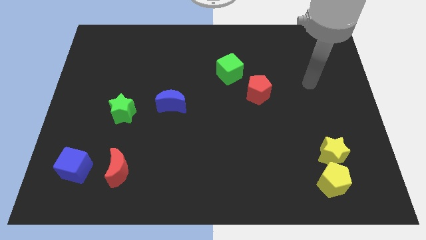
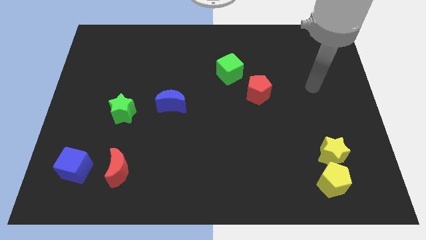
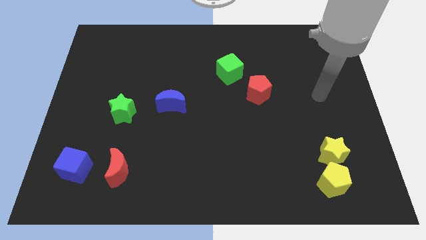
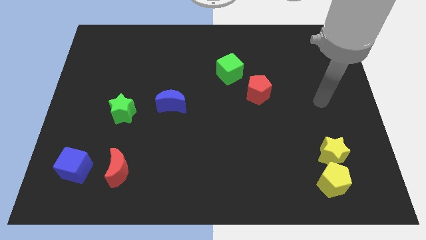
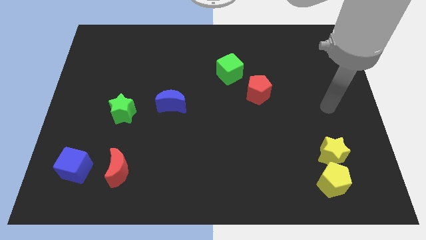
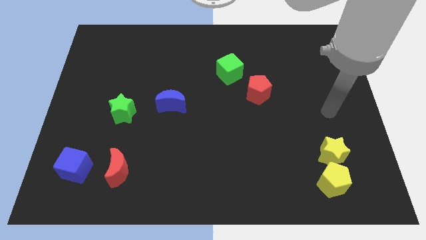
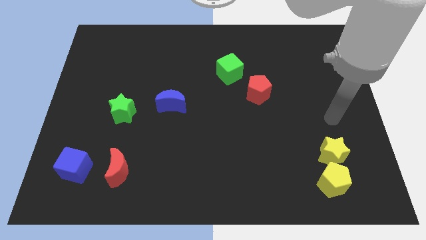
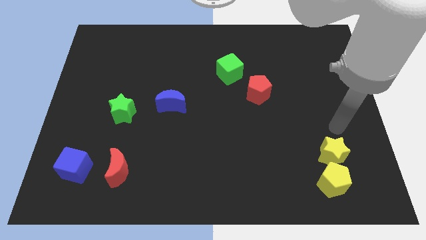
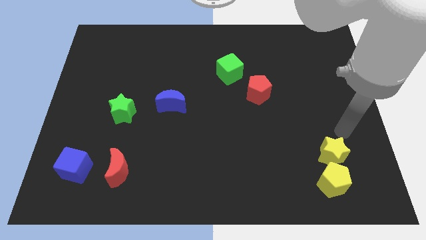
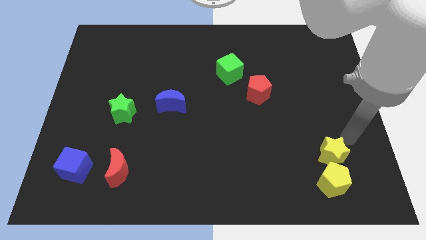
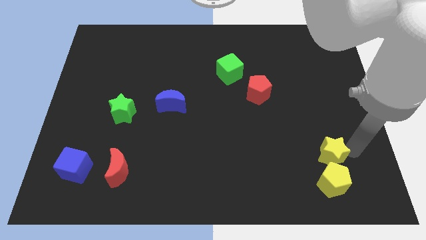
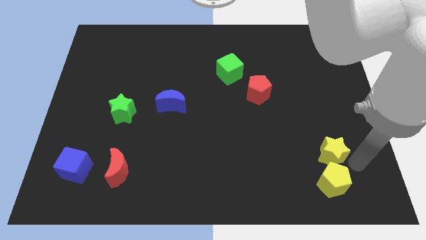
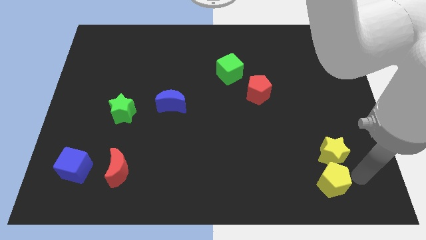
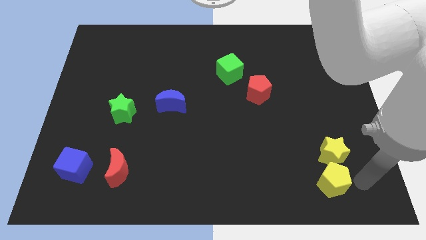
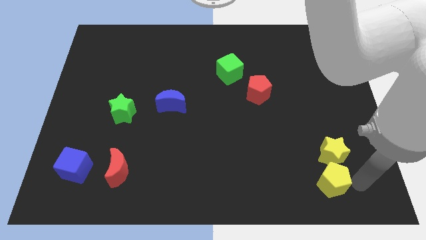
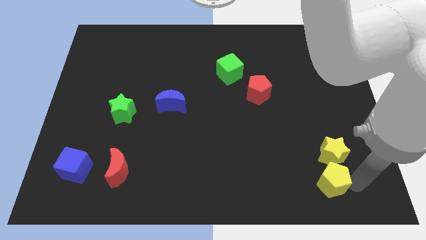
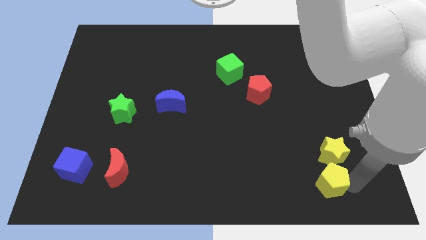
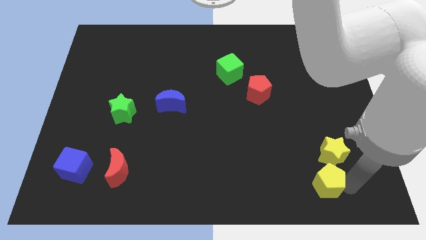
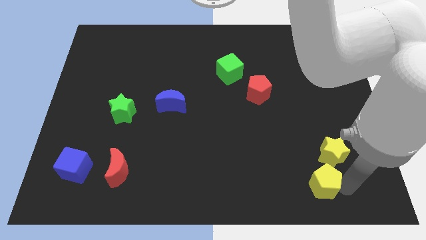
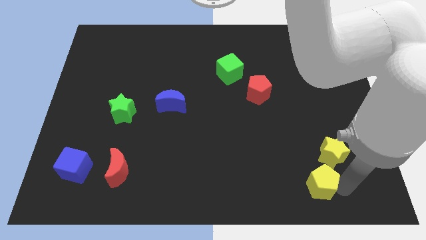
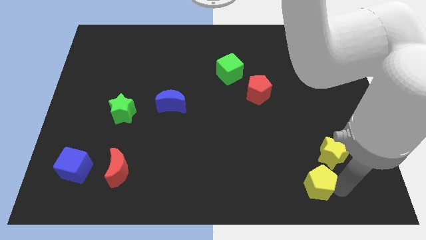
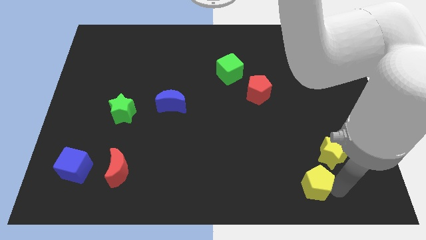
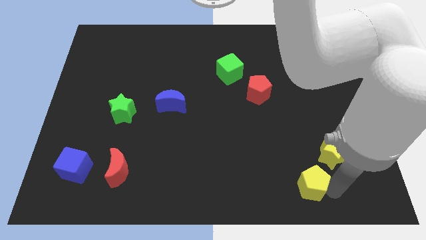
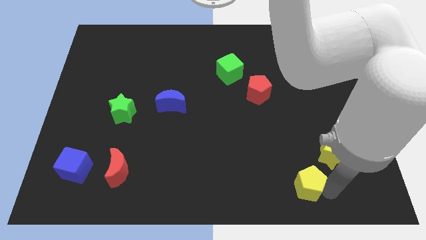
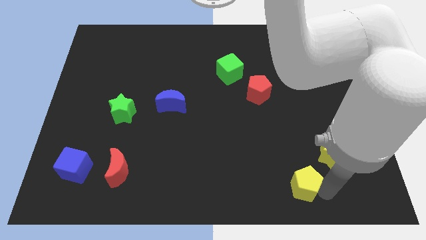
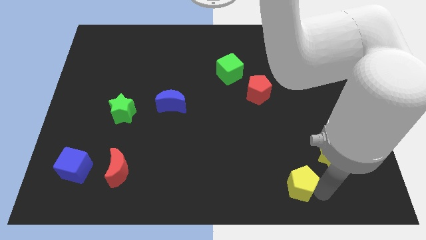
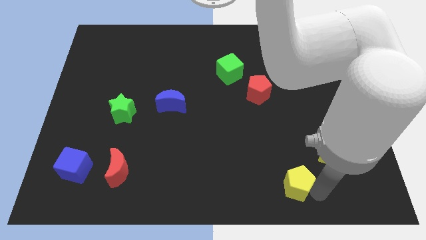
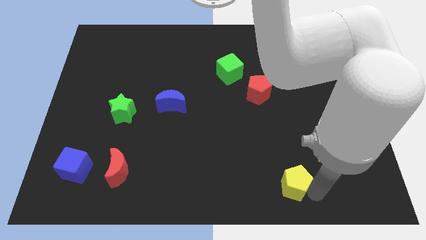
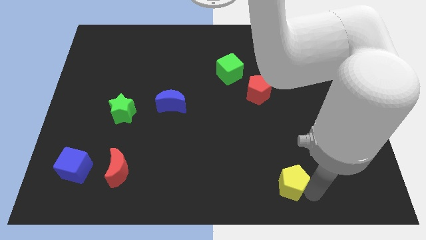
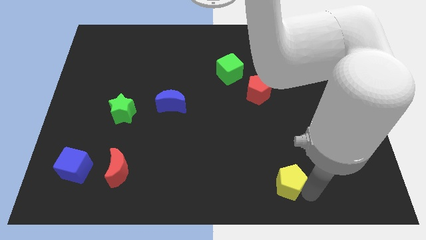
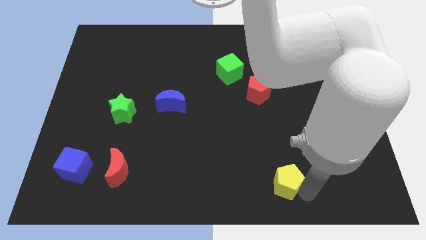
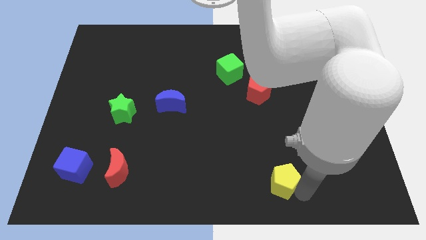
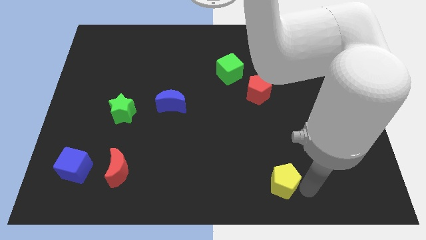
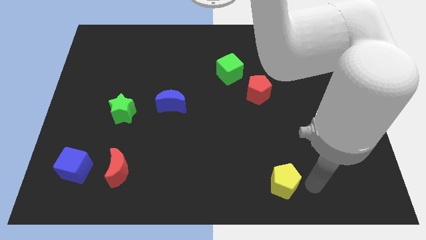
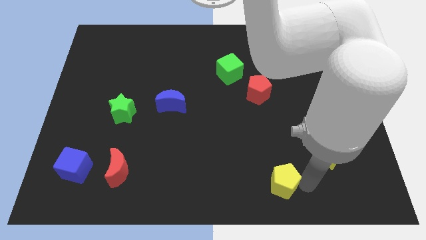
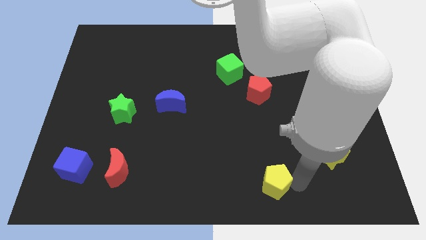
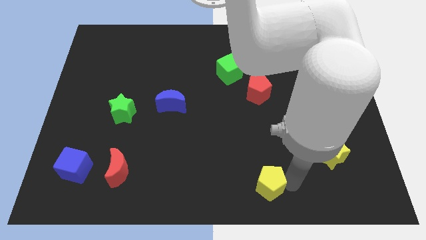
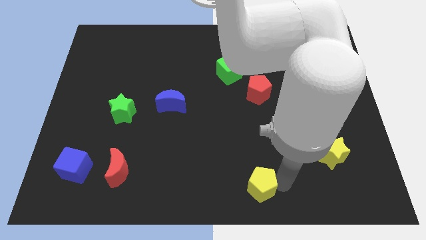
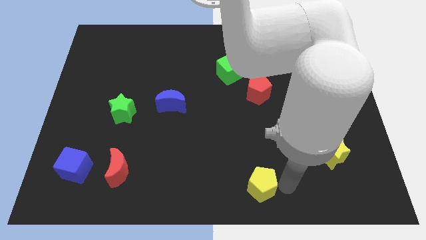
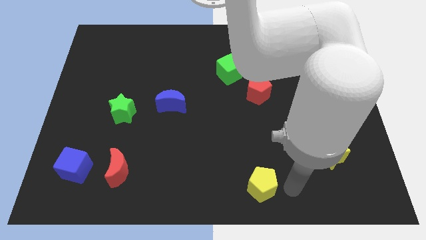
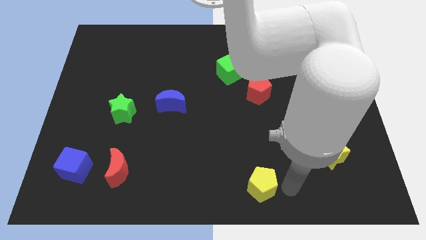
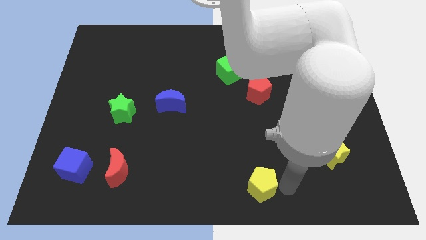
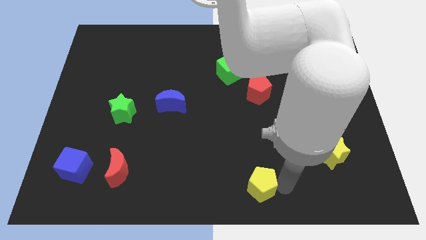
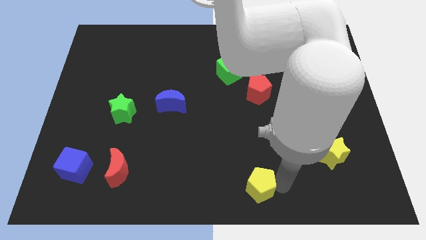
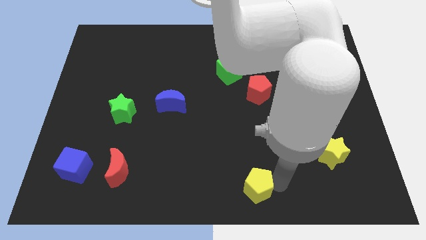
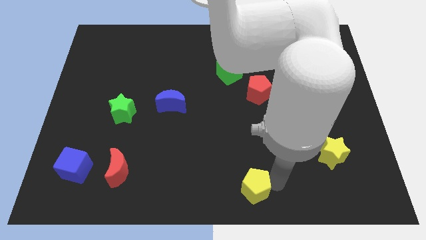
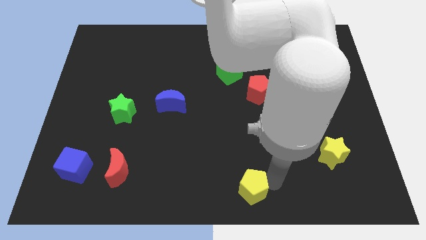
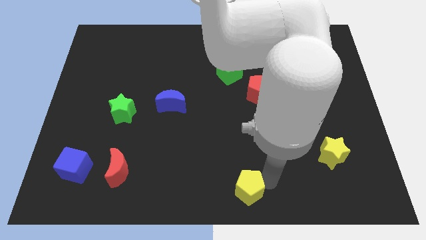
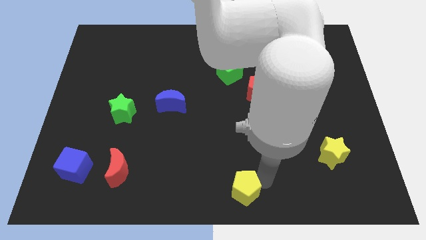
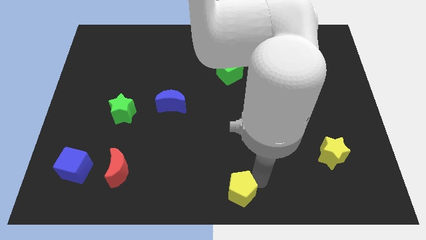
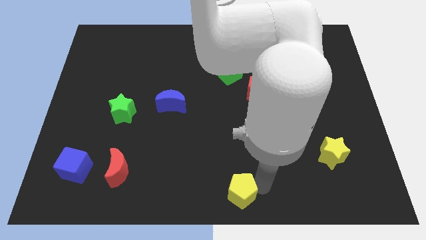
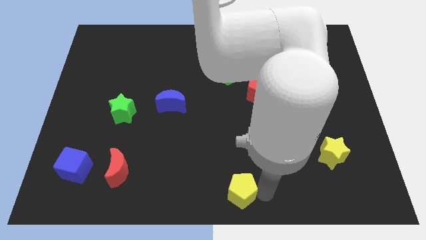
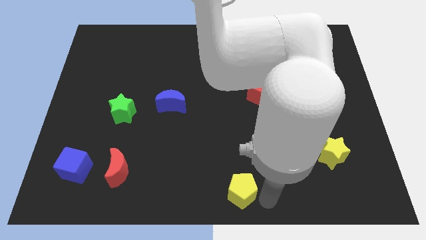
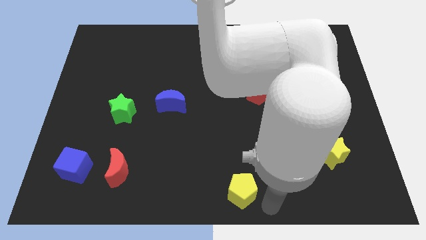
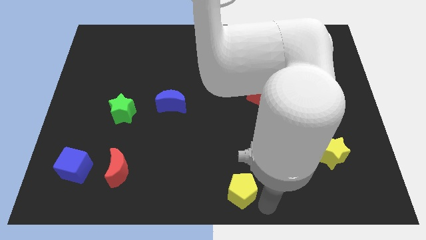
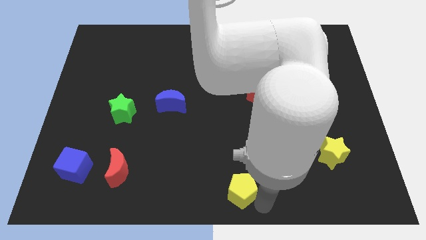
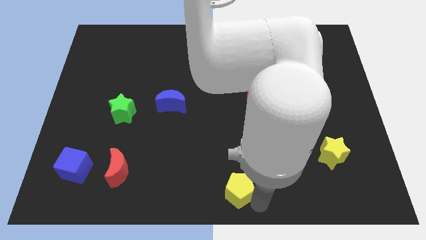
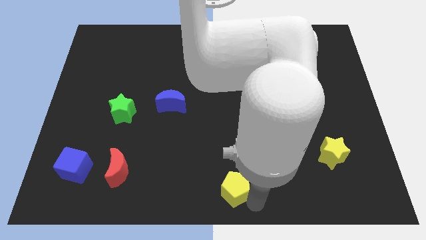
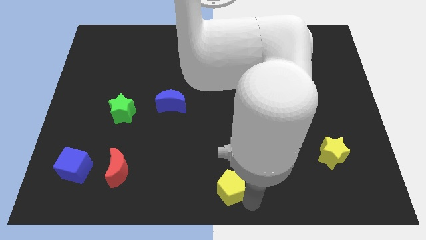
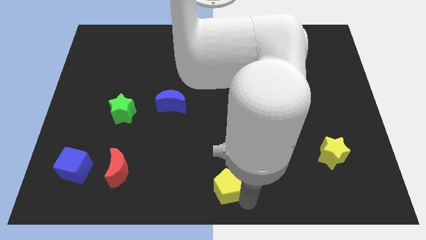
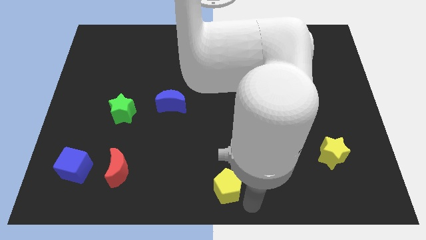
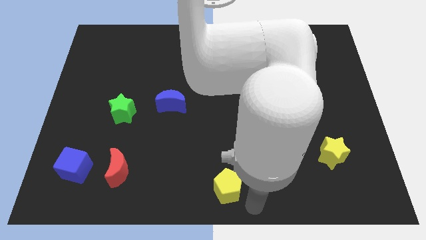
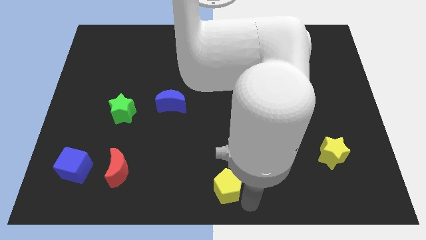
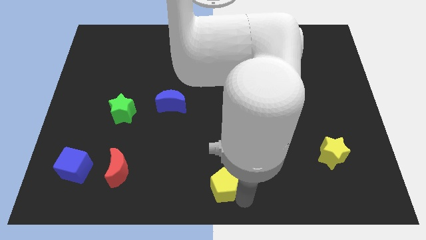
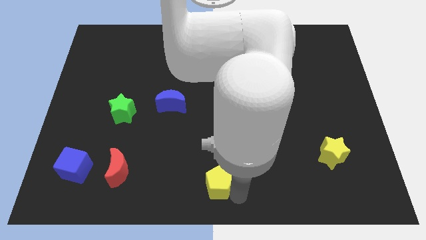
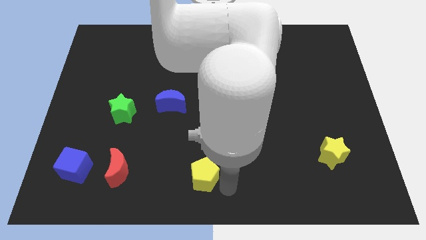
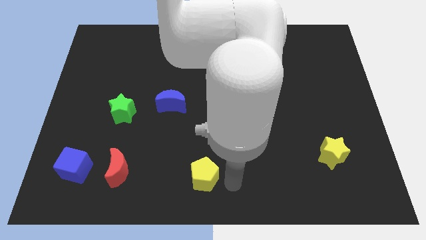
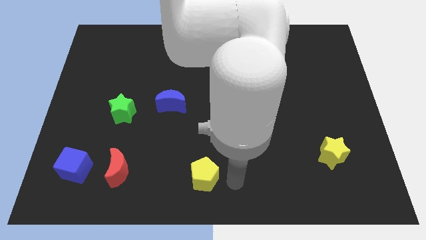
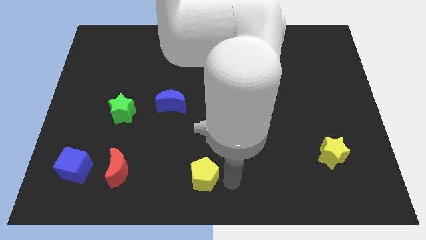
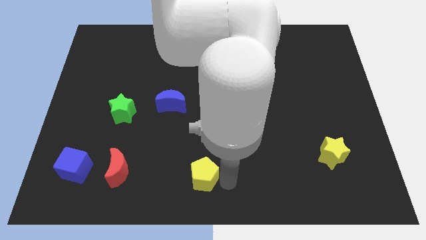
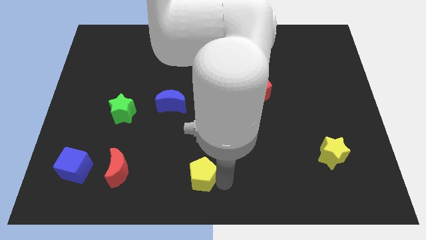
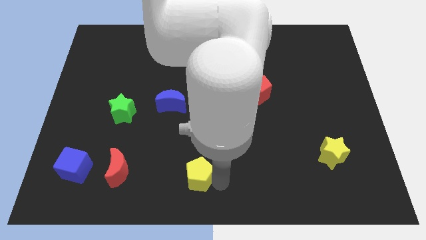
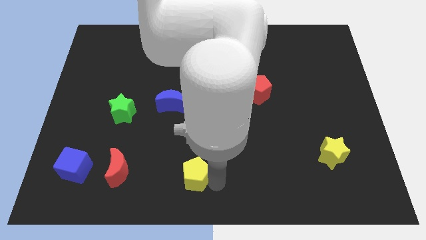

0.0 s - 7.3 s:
put the yellow pentagon to the right of the red moon
